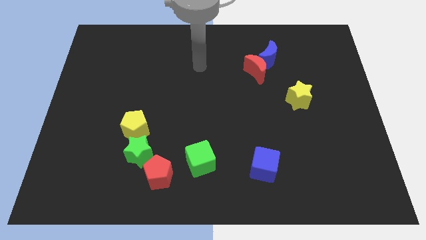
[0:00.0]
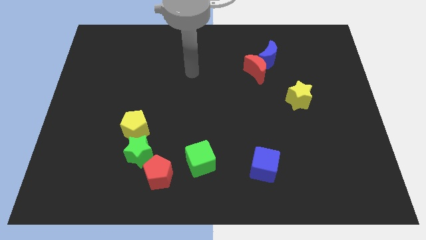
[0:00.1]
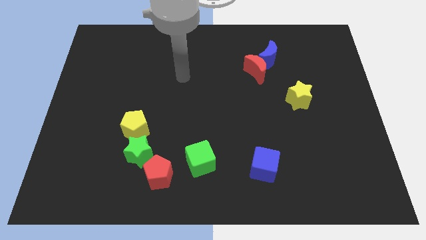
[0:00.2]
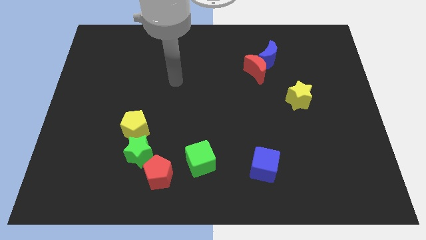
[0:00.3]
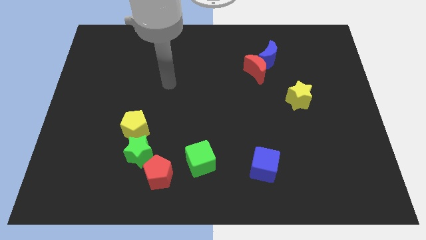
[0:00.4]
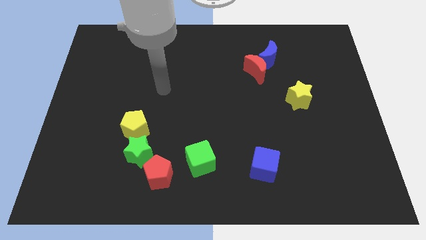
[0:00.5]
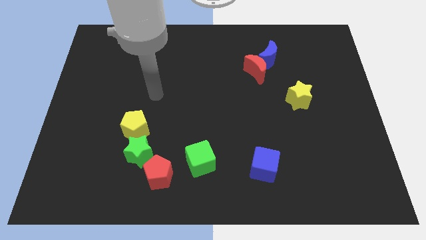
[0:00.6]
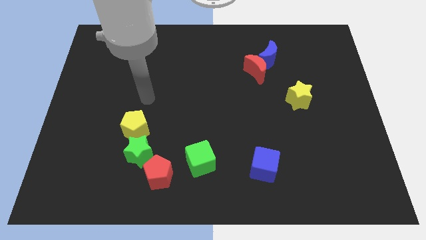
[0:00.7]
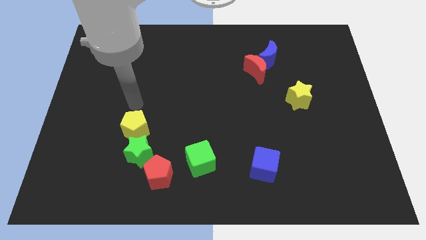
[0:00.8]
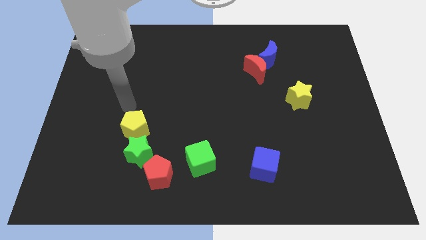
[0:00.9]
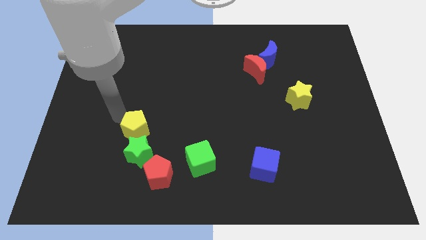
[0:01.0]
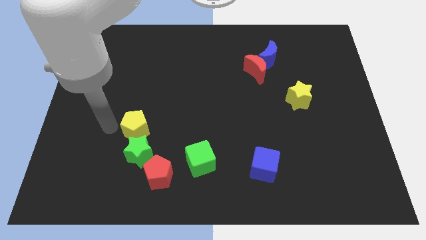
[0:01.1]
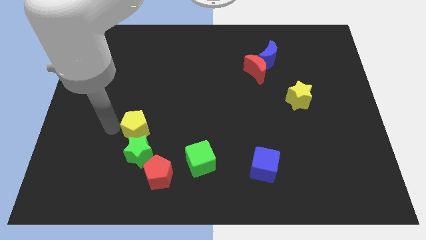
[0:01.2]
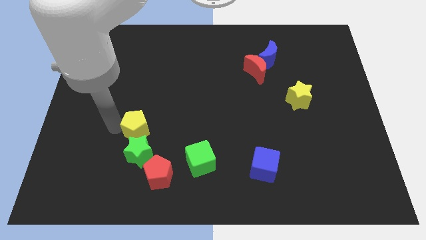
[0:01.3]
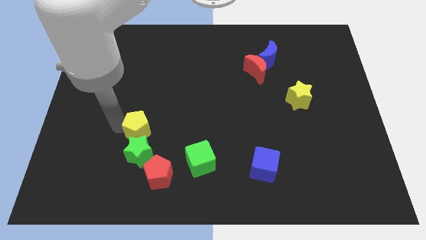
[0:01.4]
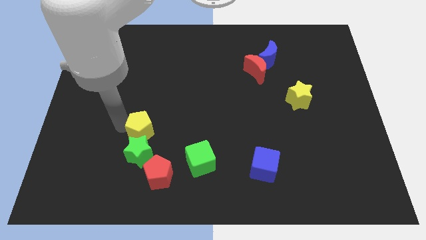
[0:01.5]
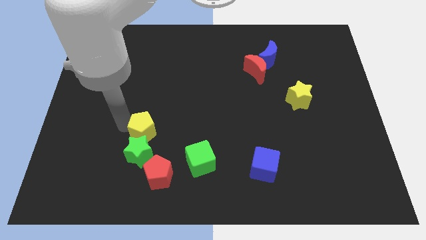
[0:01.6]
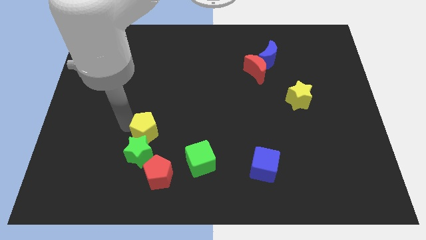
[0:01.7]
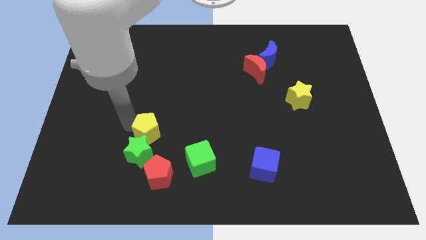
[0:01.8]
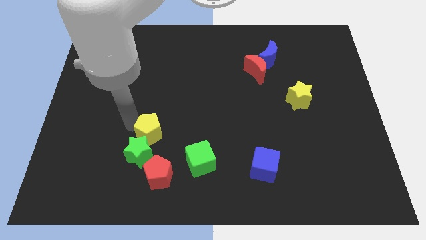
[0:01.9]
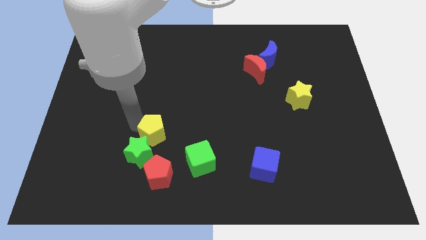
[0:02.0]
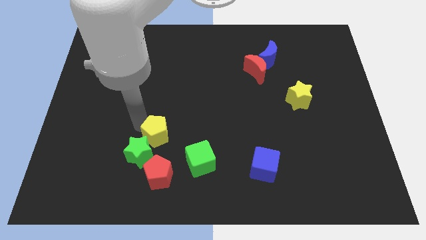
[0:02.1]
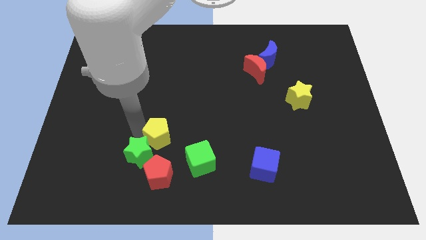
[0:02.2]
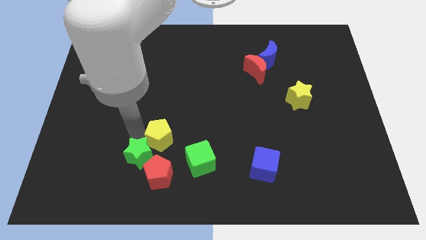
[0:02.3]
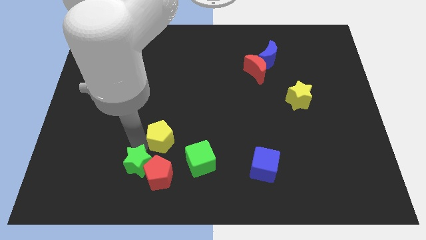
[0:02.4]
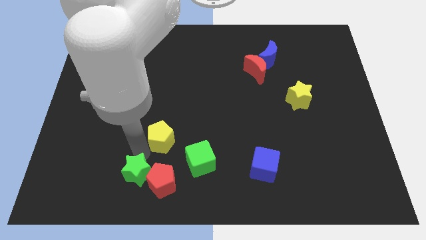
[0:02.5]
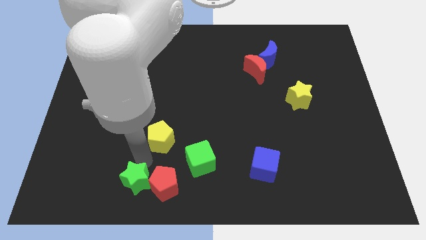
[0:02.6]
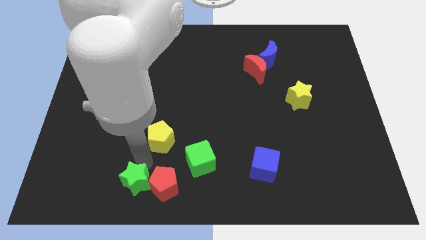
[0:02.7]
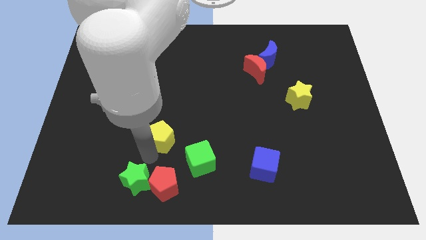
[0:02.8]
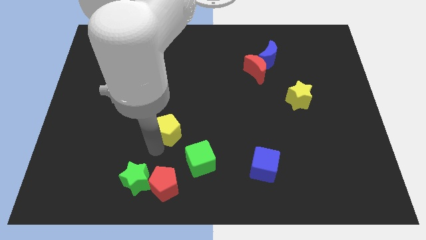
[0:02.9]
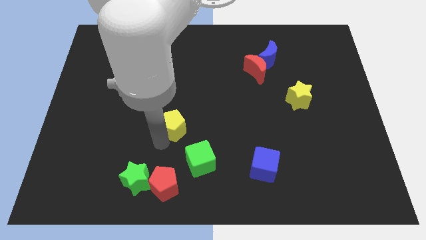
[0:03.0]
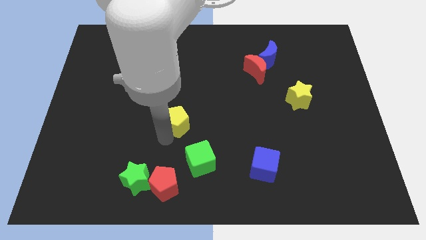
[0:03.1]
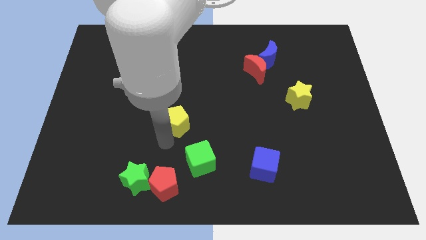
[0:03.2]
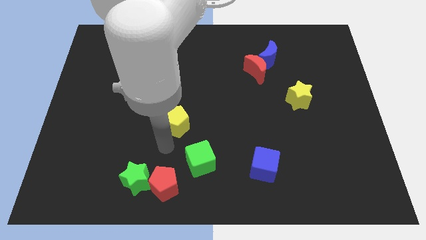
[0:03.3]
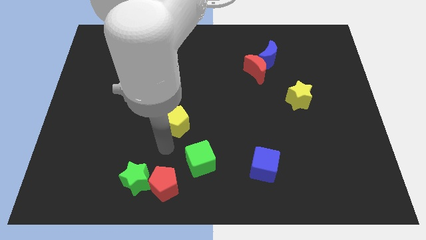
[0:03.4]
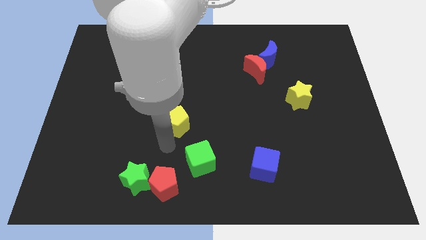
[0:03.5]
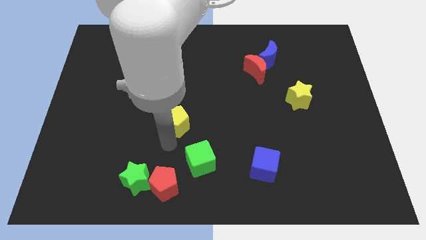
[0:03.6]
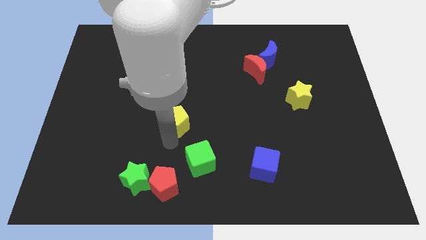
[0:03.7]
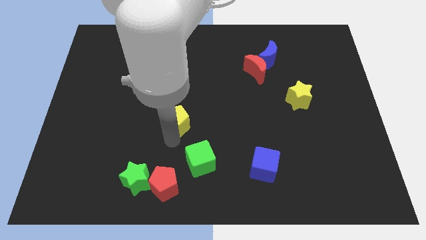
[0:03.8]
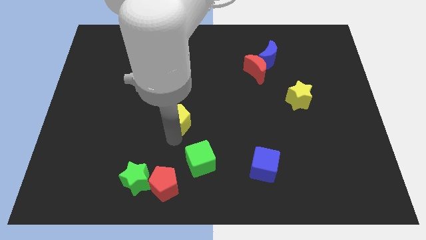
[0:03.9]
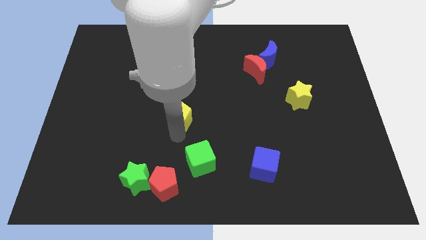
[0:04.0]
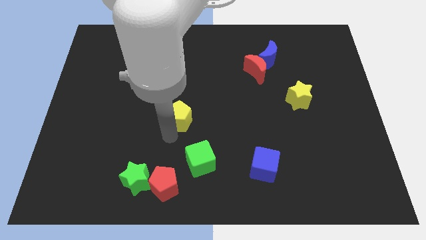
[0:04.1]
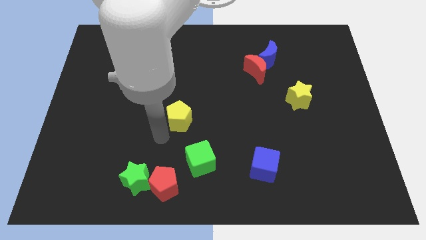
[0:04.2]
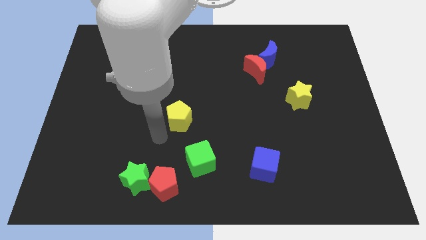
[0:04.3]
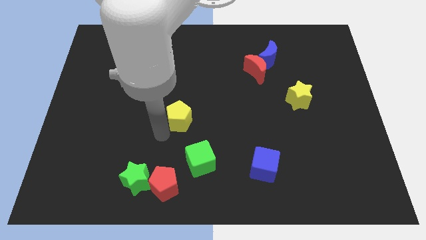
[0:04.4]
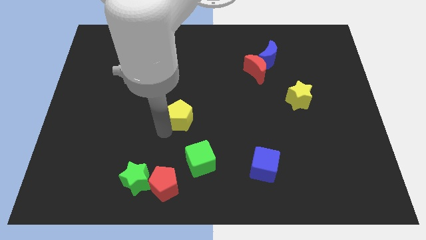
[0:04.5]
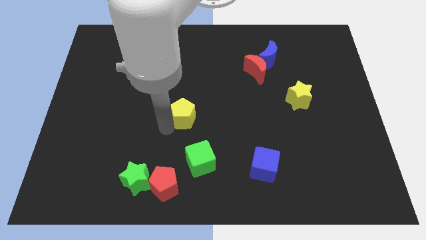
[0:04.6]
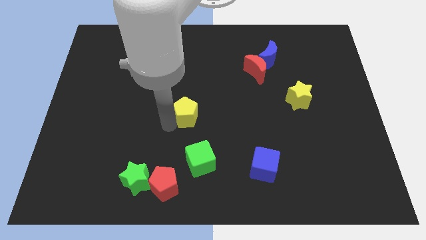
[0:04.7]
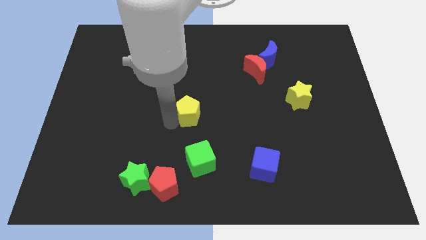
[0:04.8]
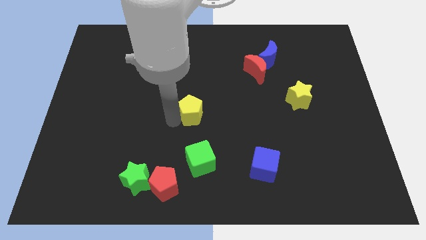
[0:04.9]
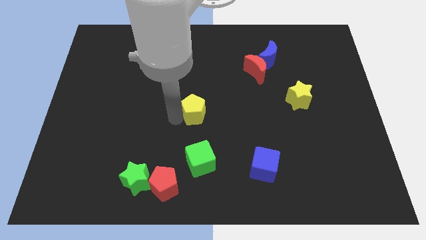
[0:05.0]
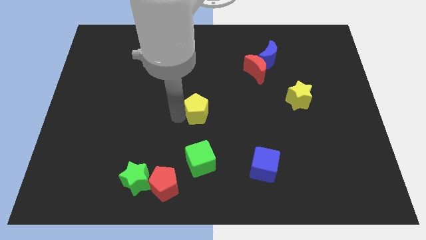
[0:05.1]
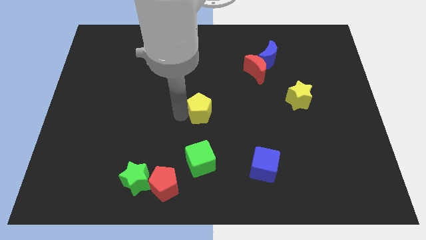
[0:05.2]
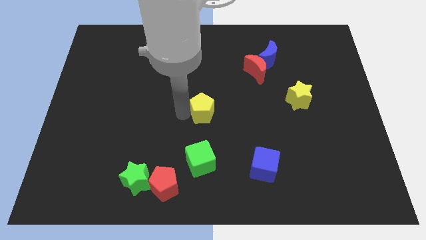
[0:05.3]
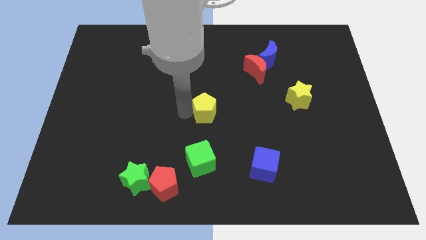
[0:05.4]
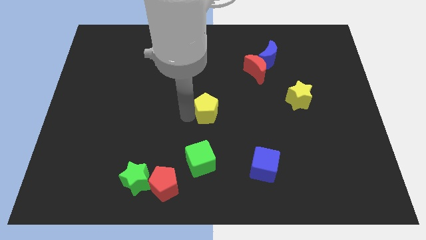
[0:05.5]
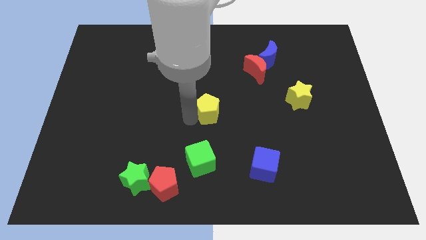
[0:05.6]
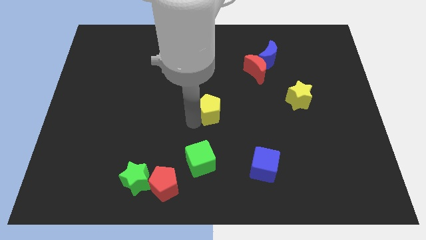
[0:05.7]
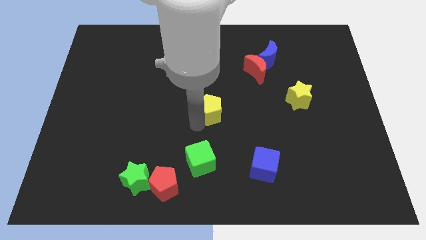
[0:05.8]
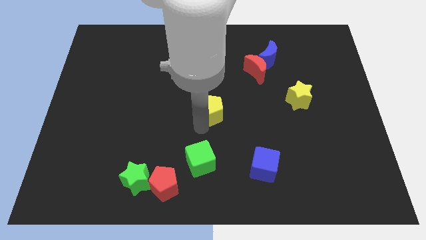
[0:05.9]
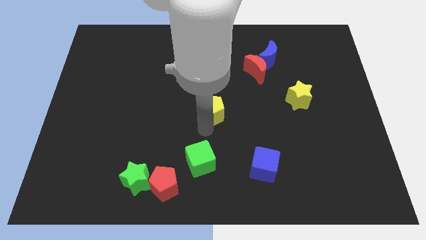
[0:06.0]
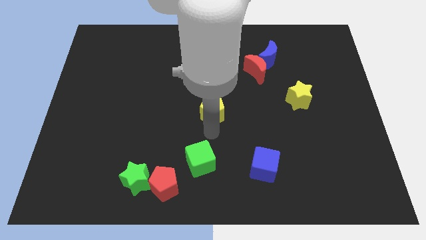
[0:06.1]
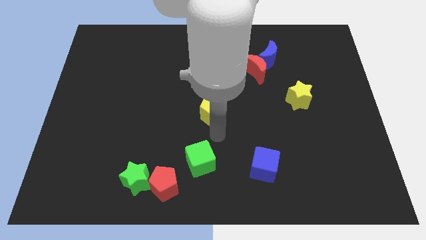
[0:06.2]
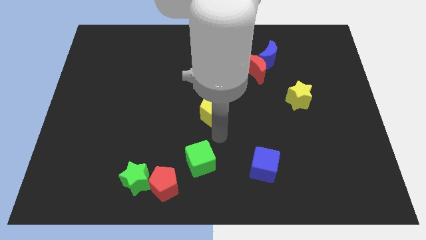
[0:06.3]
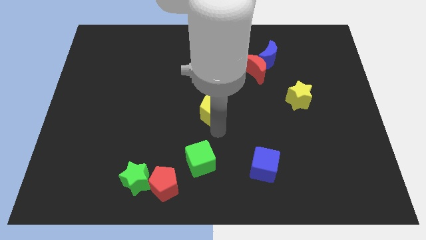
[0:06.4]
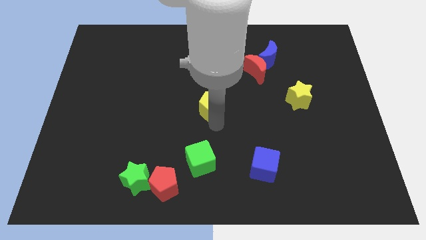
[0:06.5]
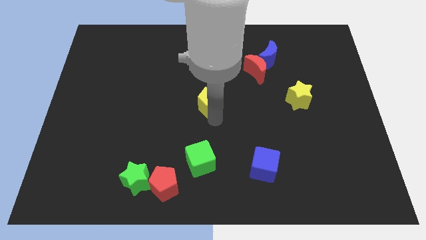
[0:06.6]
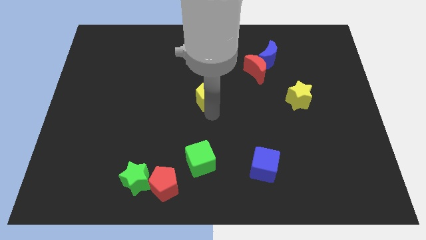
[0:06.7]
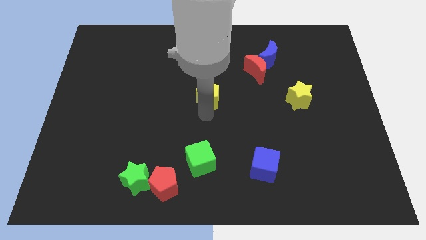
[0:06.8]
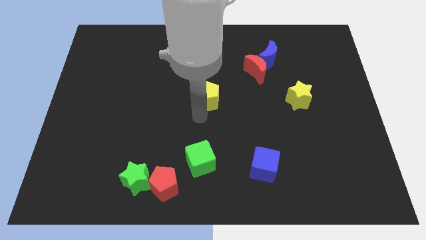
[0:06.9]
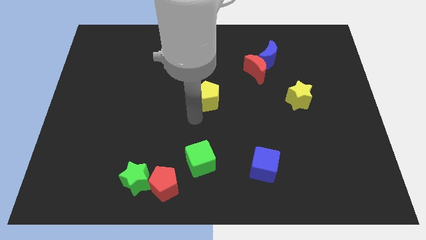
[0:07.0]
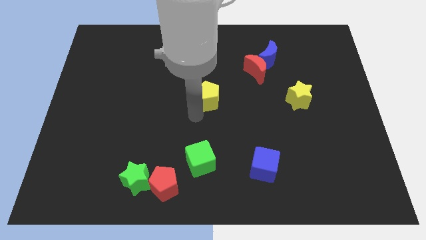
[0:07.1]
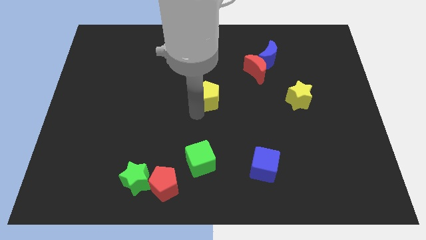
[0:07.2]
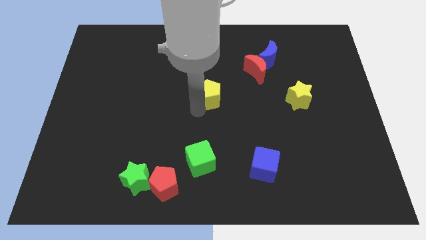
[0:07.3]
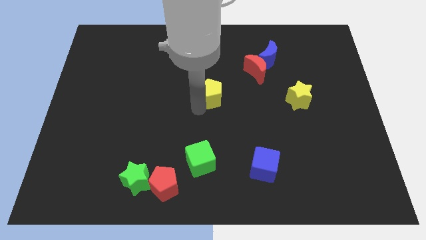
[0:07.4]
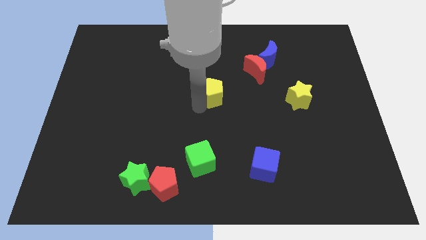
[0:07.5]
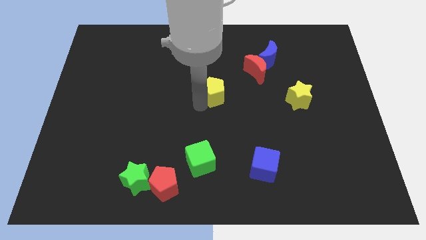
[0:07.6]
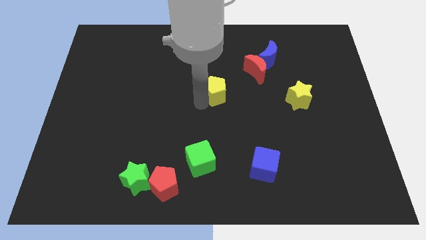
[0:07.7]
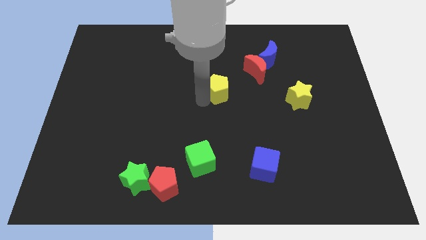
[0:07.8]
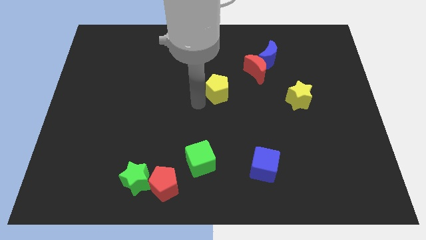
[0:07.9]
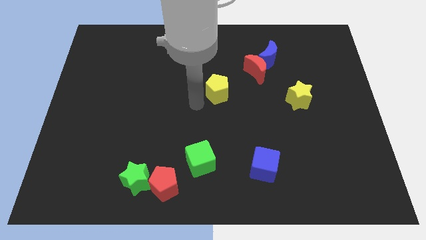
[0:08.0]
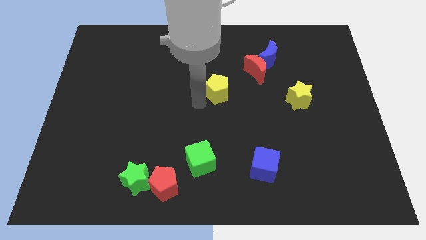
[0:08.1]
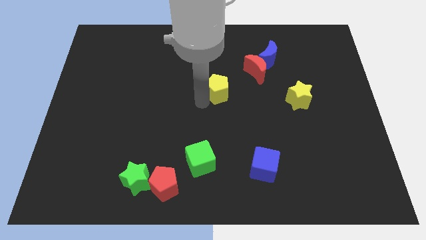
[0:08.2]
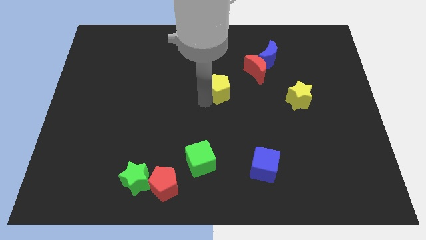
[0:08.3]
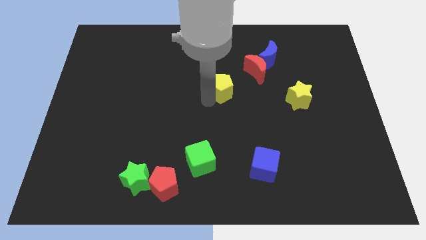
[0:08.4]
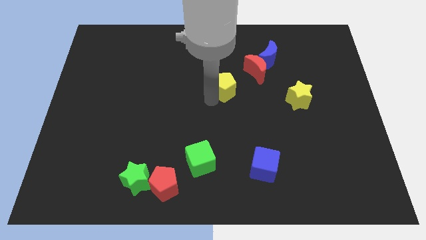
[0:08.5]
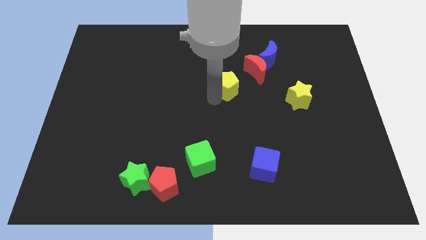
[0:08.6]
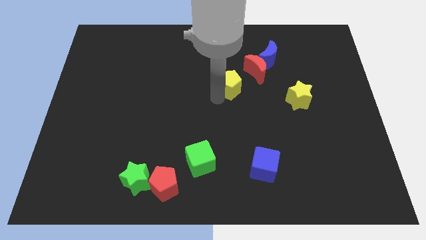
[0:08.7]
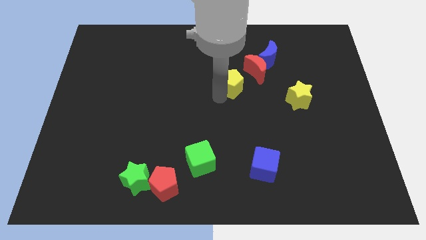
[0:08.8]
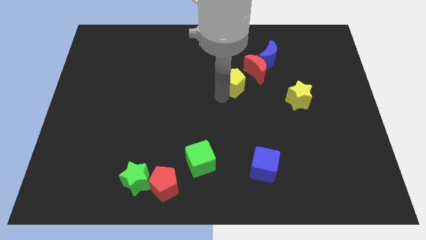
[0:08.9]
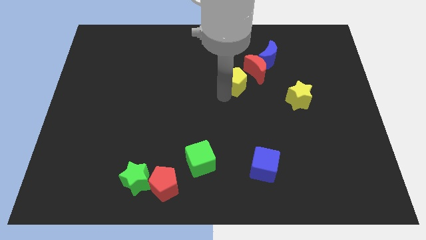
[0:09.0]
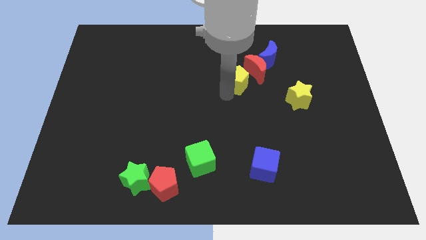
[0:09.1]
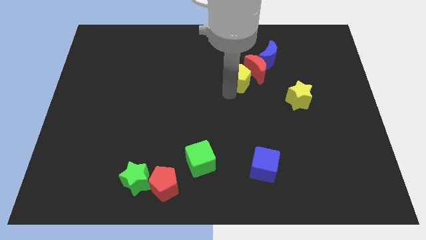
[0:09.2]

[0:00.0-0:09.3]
put the yellow pentagon towards the red moon
